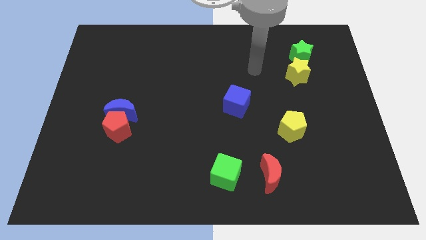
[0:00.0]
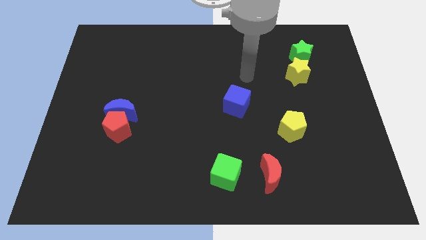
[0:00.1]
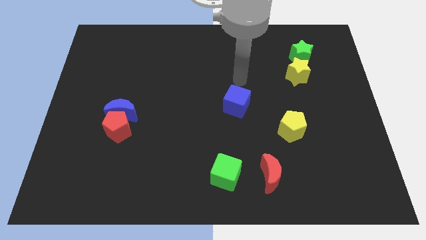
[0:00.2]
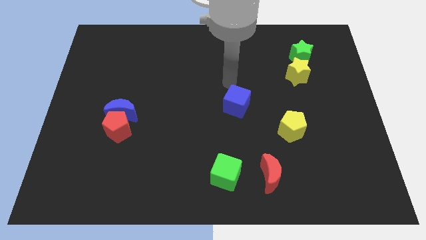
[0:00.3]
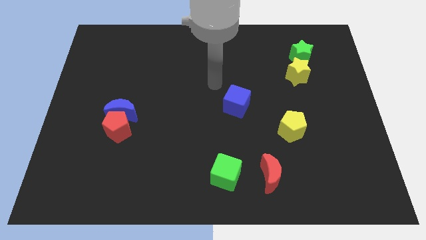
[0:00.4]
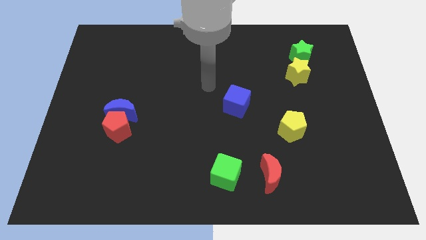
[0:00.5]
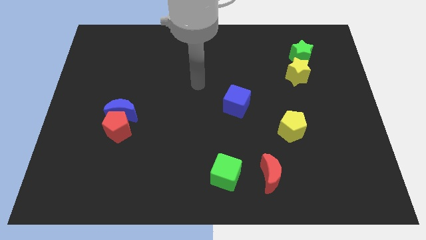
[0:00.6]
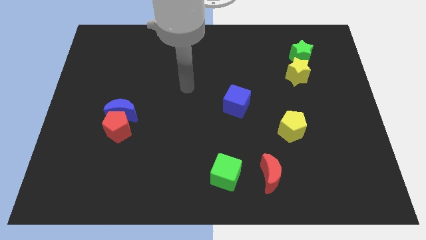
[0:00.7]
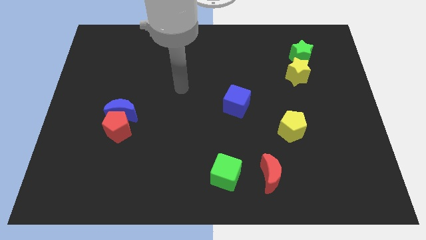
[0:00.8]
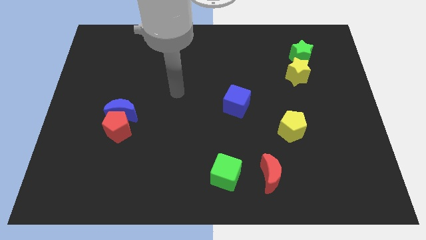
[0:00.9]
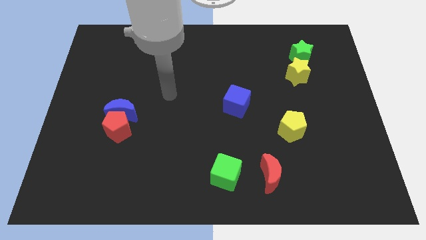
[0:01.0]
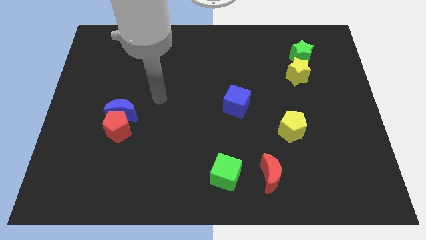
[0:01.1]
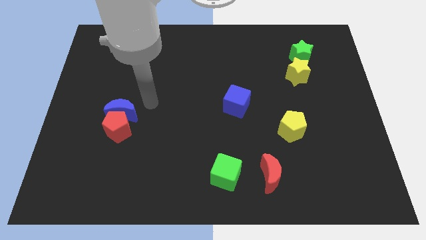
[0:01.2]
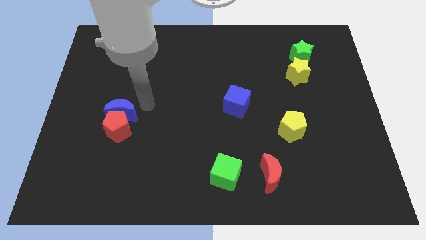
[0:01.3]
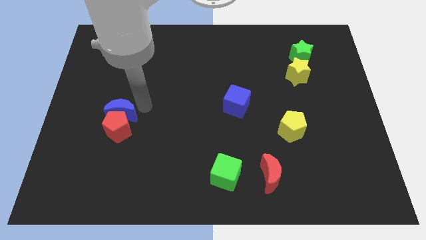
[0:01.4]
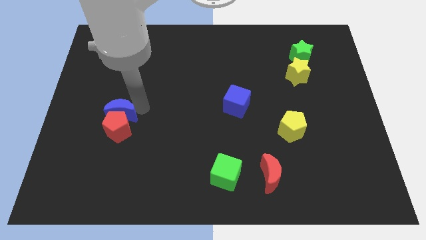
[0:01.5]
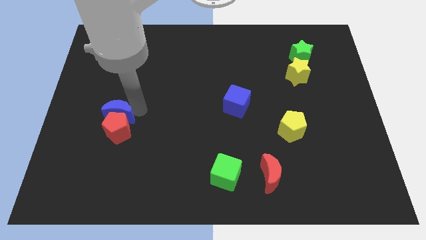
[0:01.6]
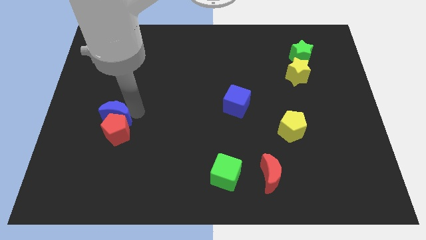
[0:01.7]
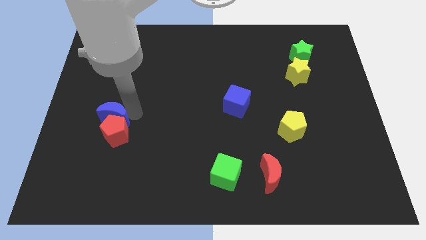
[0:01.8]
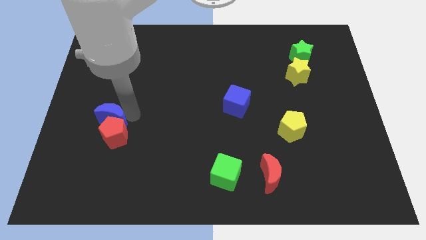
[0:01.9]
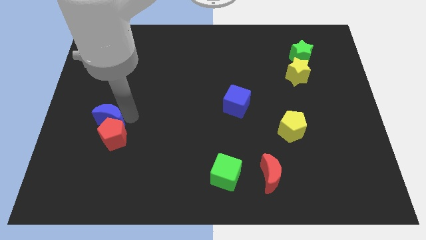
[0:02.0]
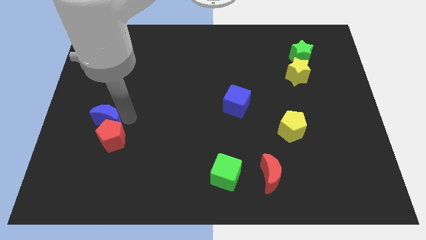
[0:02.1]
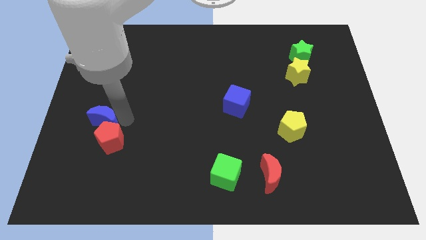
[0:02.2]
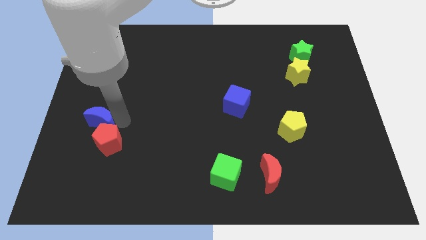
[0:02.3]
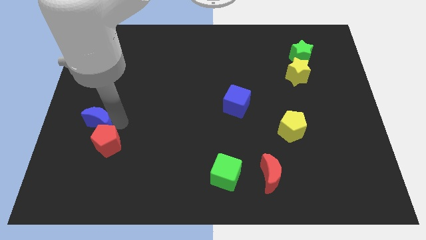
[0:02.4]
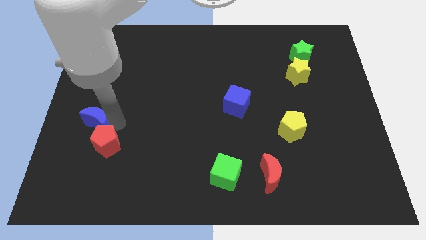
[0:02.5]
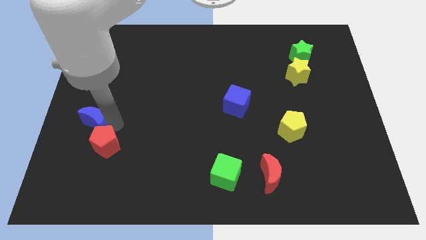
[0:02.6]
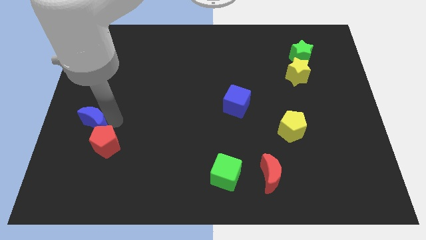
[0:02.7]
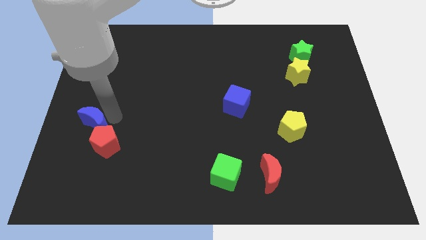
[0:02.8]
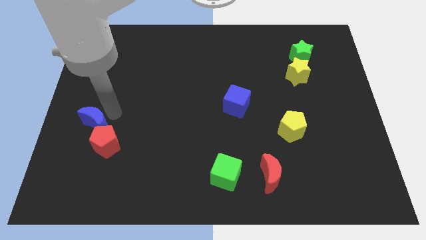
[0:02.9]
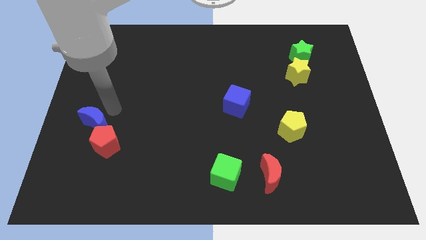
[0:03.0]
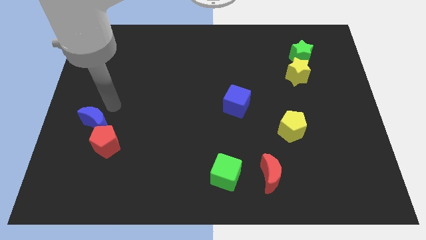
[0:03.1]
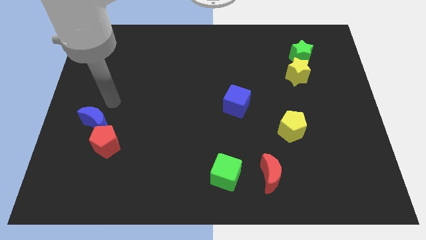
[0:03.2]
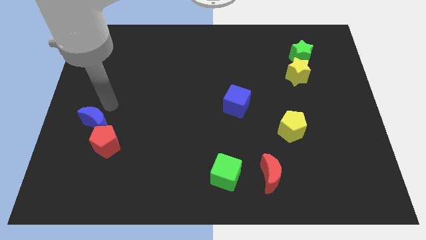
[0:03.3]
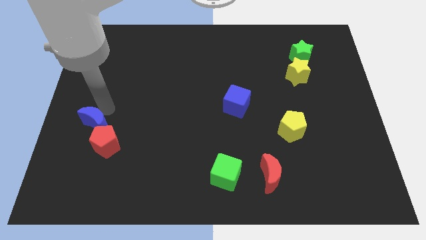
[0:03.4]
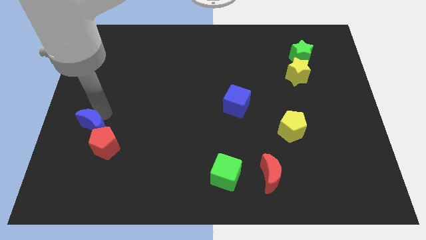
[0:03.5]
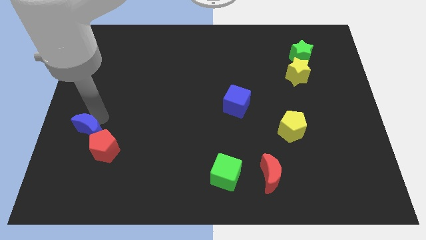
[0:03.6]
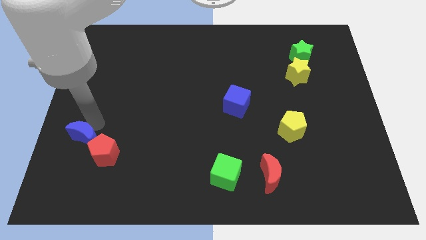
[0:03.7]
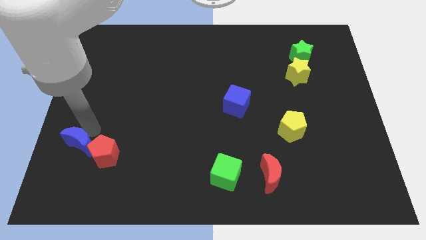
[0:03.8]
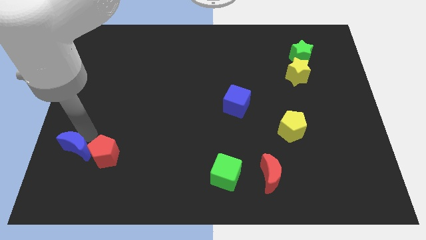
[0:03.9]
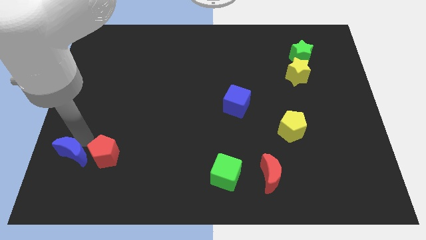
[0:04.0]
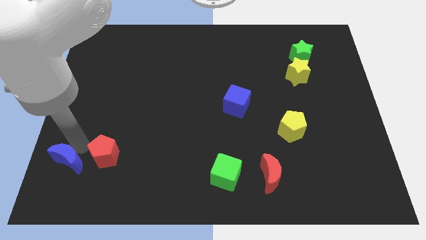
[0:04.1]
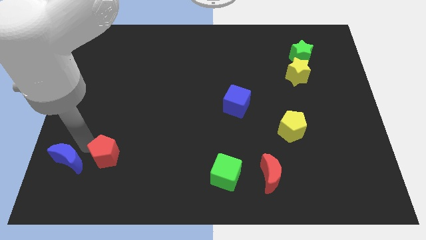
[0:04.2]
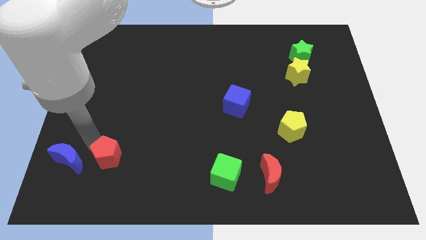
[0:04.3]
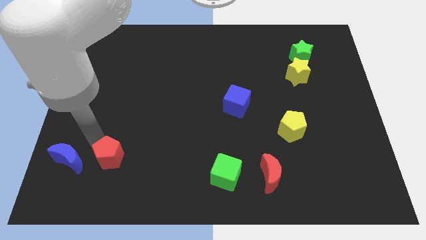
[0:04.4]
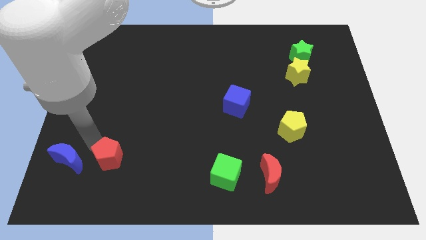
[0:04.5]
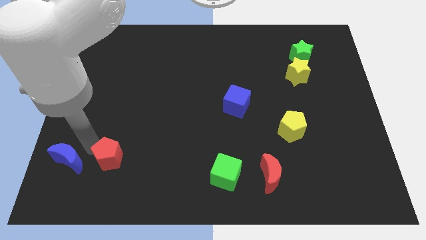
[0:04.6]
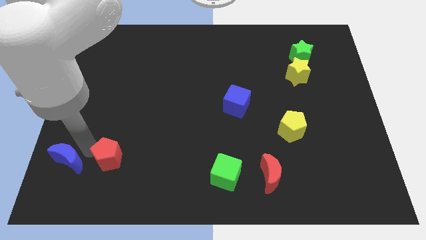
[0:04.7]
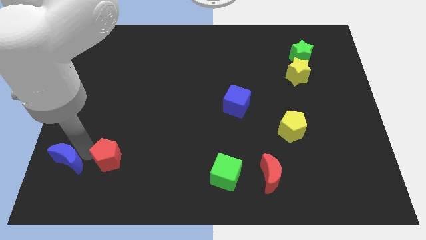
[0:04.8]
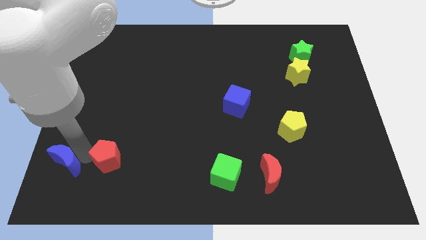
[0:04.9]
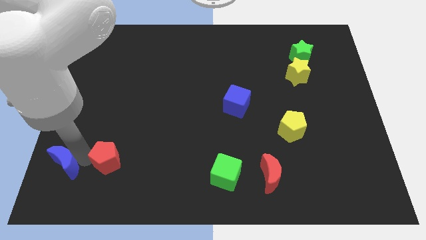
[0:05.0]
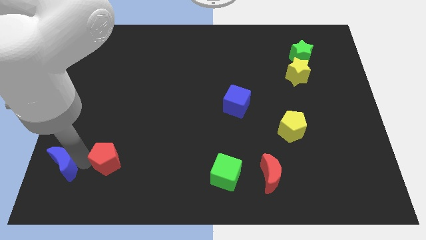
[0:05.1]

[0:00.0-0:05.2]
put the blue moon to the lower left corner

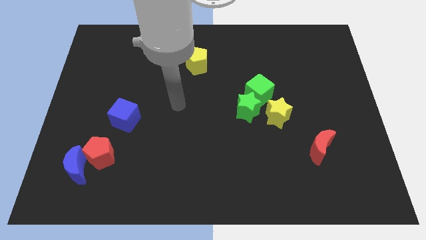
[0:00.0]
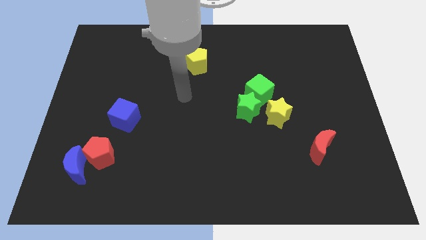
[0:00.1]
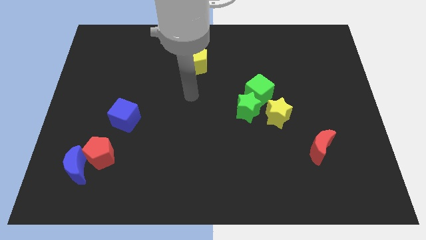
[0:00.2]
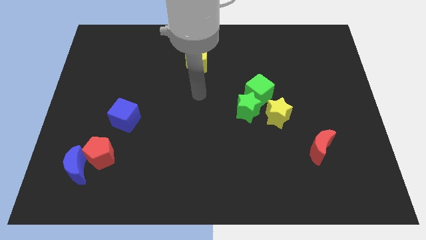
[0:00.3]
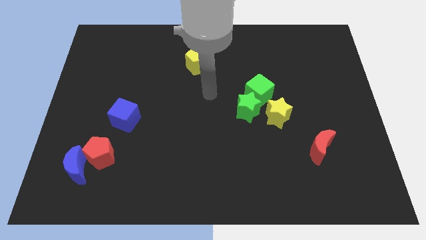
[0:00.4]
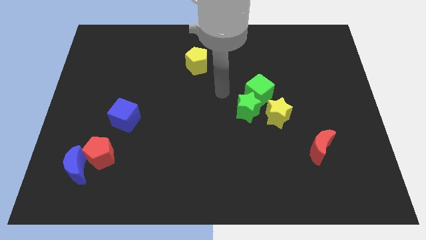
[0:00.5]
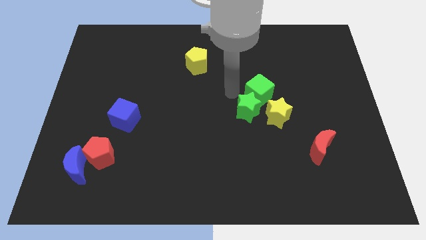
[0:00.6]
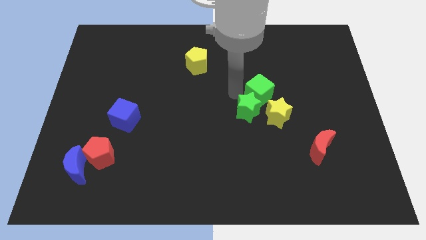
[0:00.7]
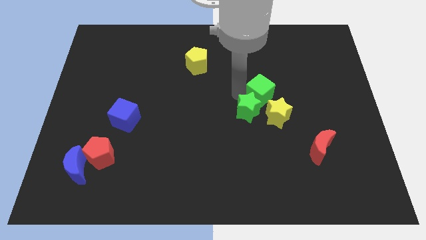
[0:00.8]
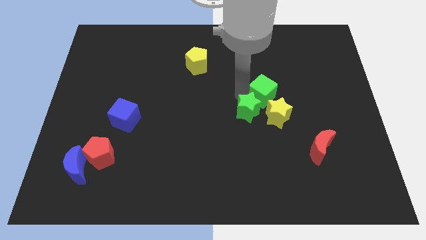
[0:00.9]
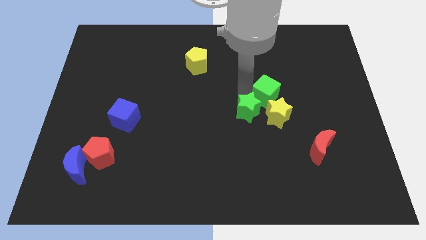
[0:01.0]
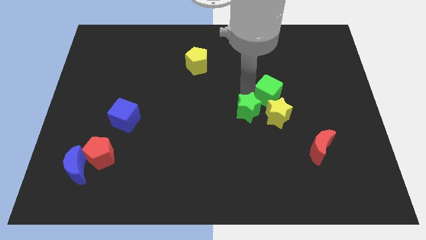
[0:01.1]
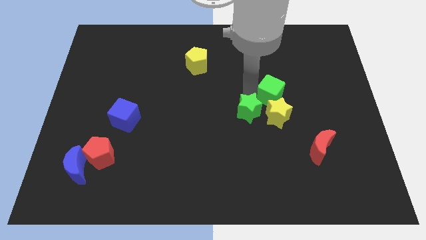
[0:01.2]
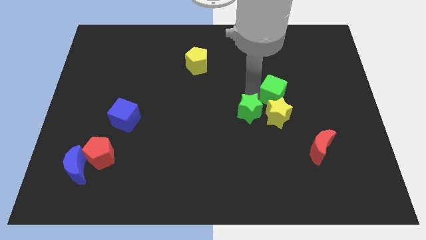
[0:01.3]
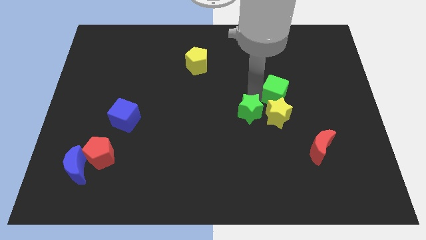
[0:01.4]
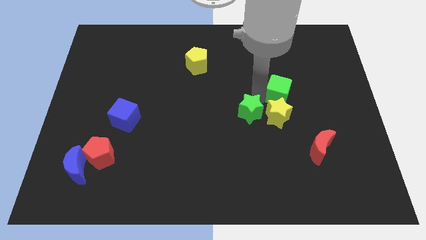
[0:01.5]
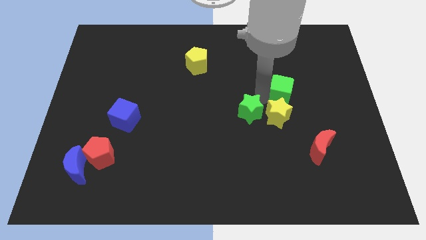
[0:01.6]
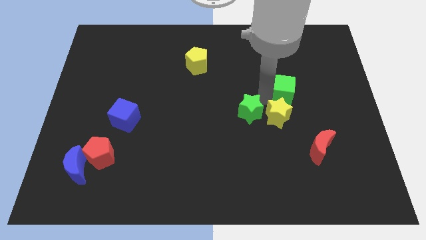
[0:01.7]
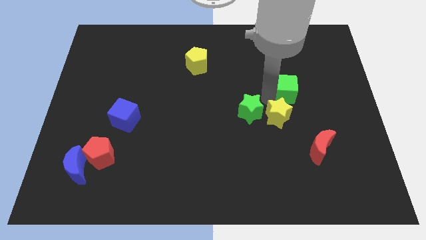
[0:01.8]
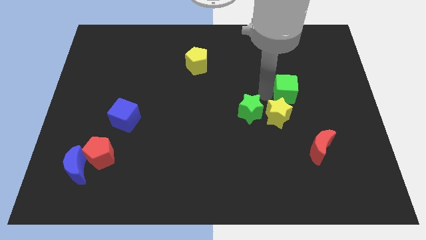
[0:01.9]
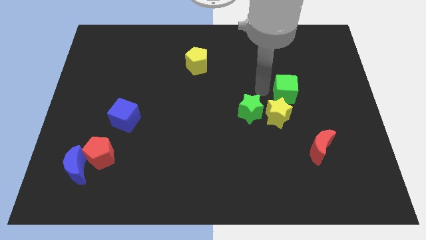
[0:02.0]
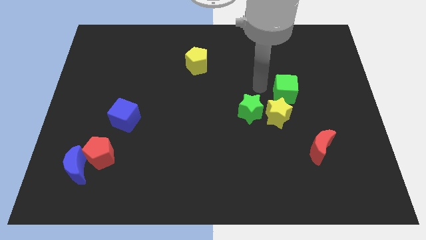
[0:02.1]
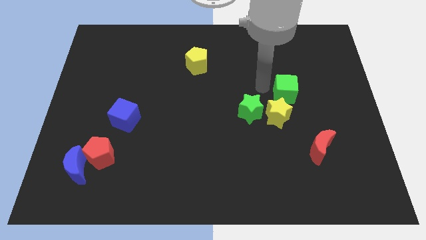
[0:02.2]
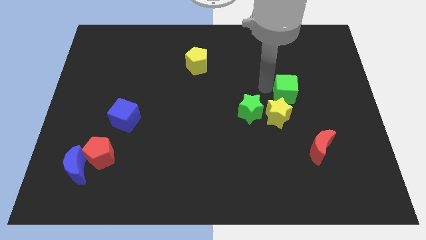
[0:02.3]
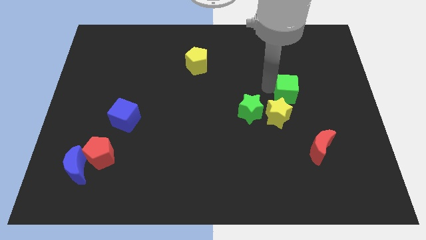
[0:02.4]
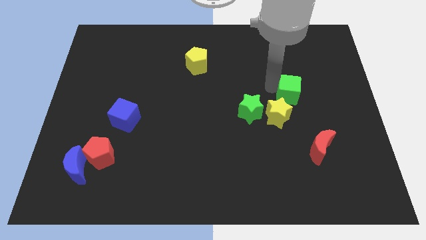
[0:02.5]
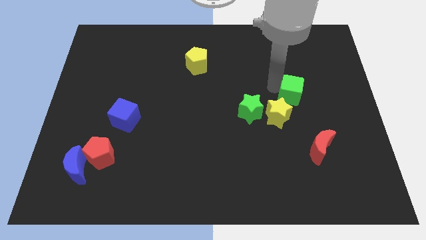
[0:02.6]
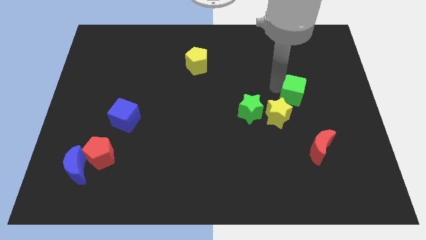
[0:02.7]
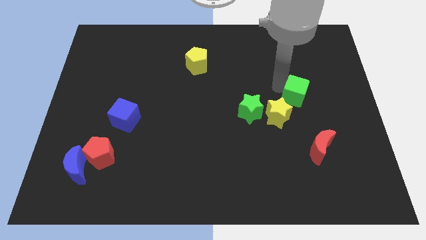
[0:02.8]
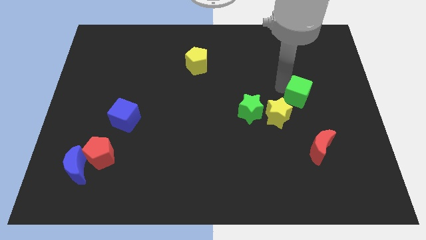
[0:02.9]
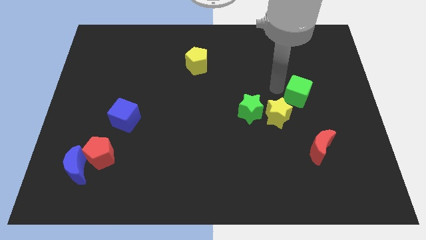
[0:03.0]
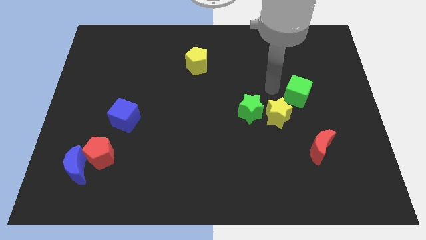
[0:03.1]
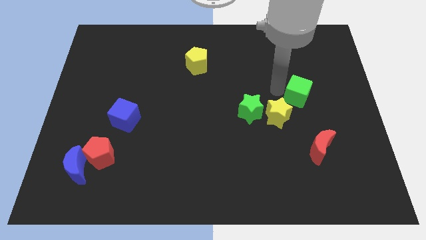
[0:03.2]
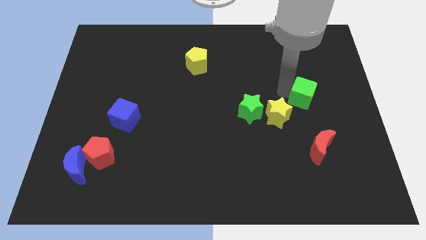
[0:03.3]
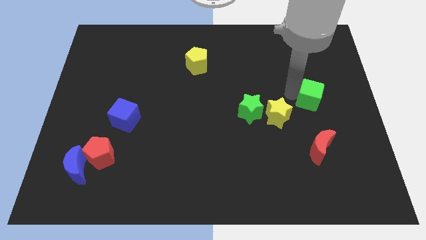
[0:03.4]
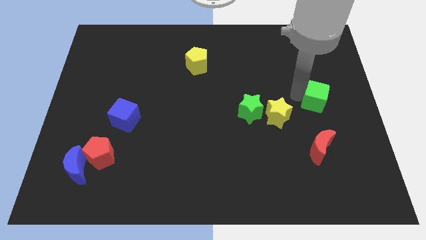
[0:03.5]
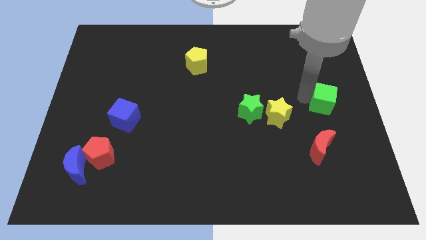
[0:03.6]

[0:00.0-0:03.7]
slide the green cube to the right side of the board
